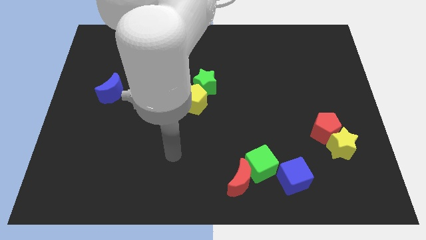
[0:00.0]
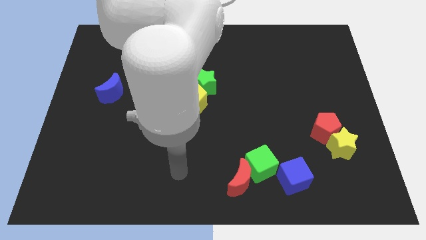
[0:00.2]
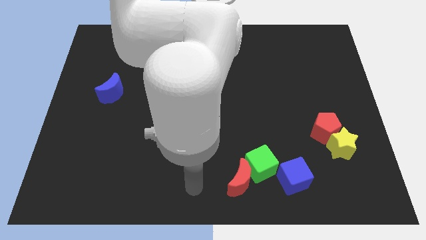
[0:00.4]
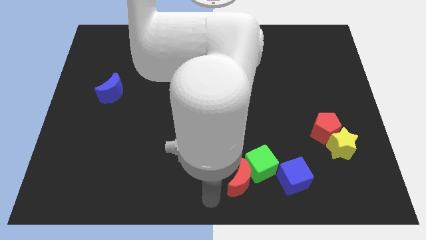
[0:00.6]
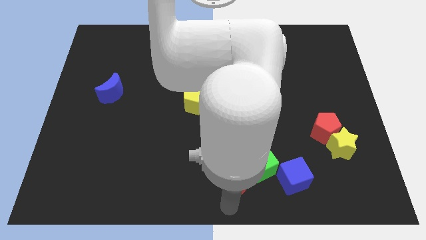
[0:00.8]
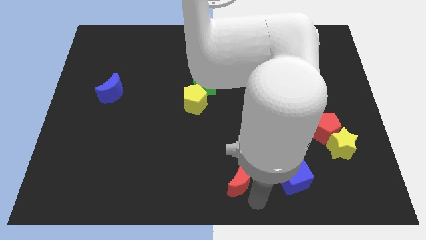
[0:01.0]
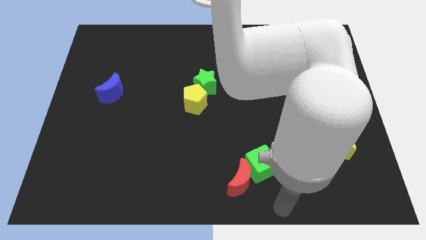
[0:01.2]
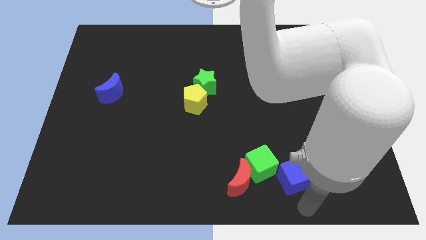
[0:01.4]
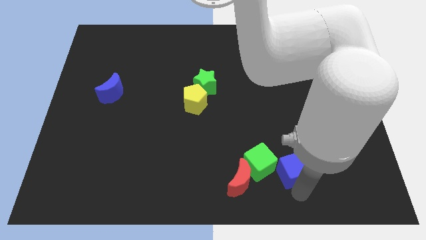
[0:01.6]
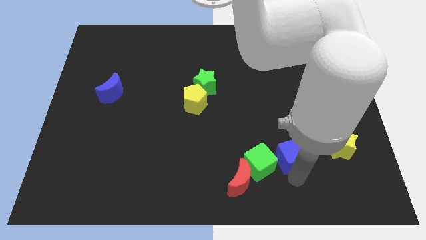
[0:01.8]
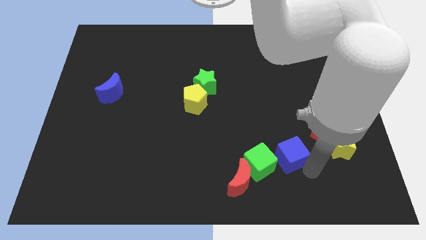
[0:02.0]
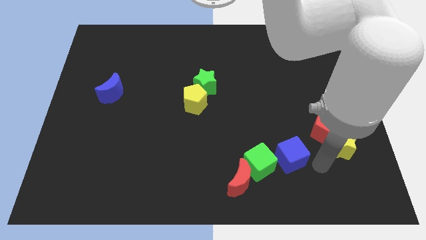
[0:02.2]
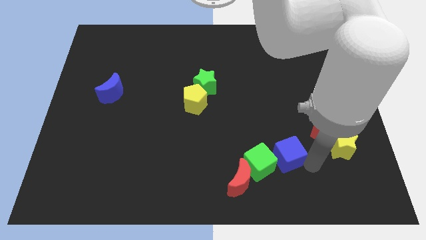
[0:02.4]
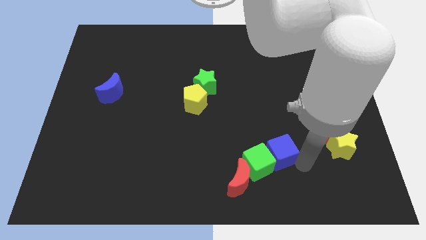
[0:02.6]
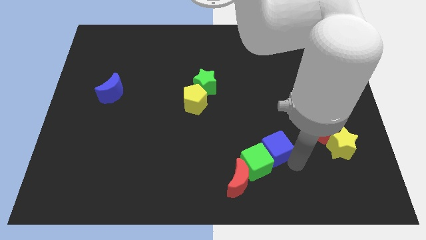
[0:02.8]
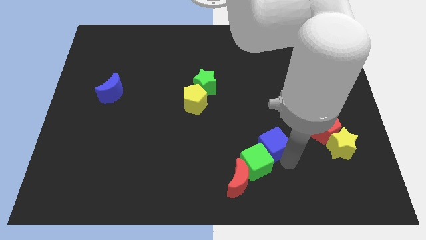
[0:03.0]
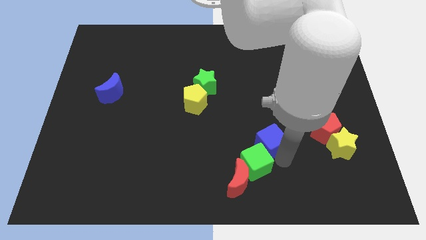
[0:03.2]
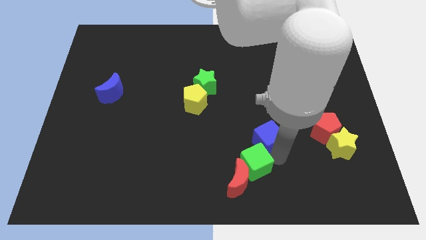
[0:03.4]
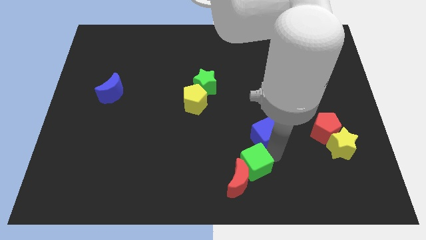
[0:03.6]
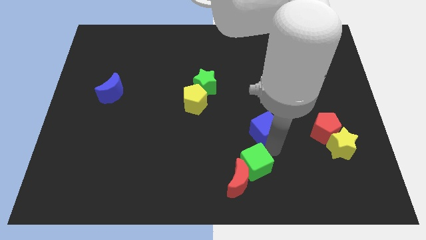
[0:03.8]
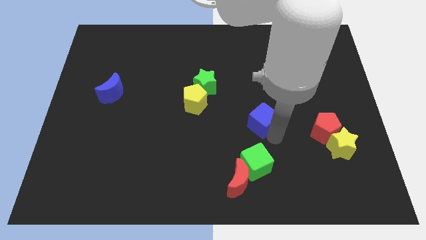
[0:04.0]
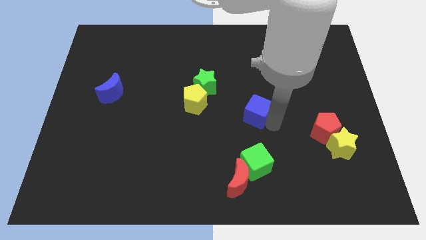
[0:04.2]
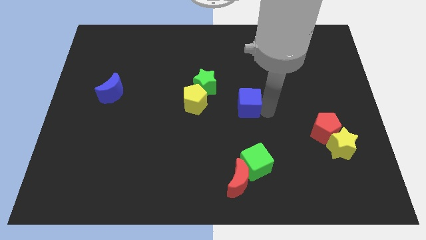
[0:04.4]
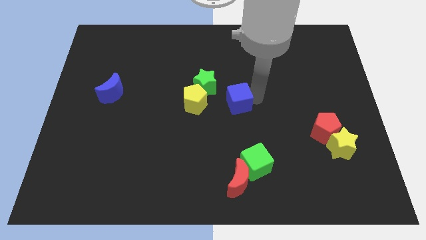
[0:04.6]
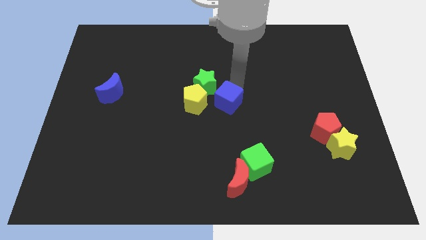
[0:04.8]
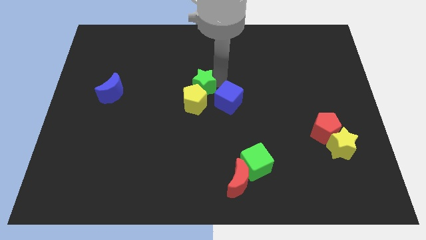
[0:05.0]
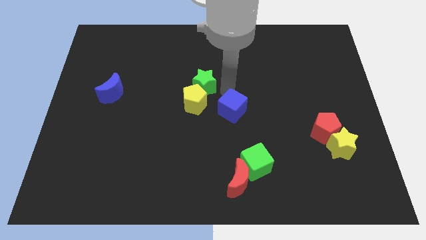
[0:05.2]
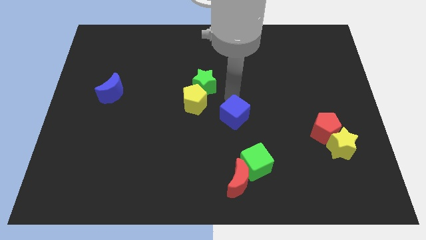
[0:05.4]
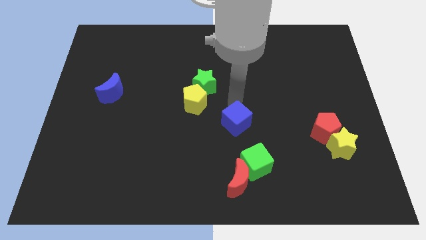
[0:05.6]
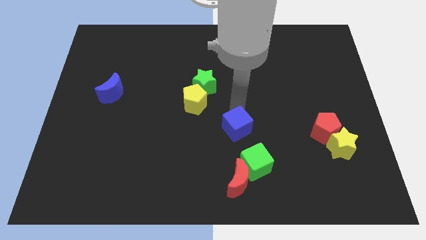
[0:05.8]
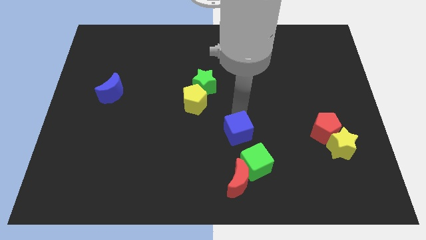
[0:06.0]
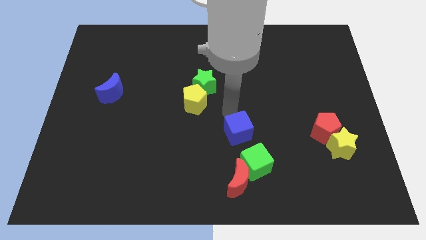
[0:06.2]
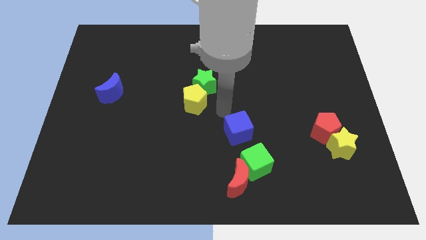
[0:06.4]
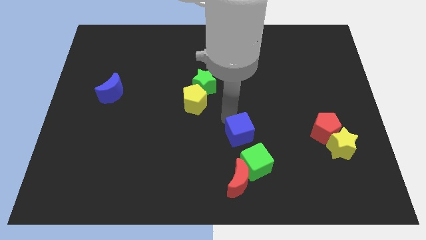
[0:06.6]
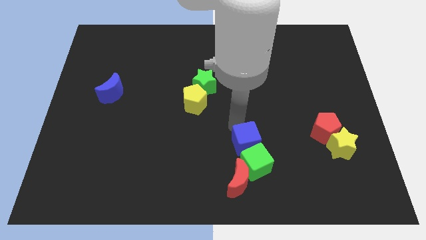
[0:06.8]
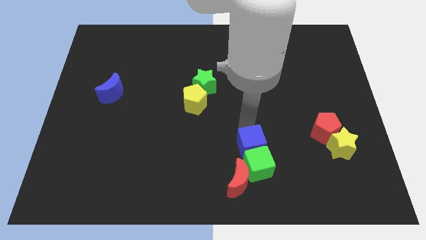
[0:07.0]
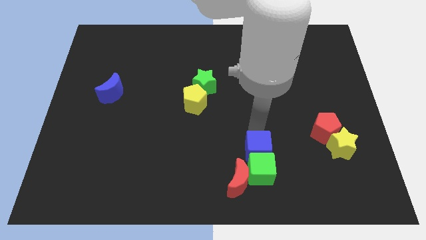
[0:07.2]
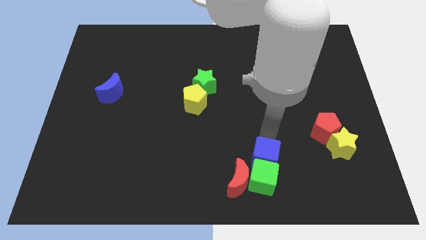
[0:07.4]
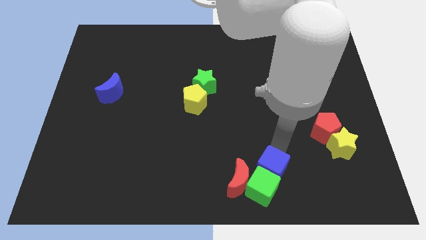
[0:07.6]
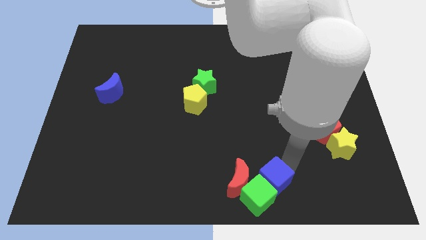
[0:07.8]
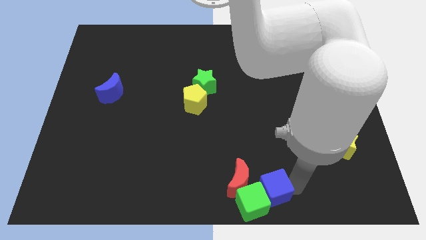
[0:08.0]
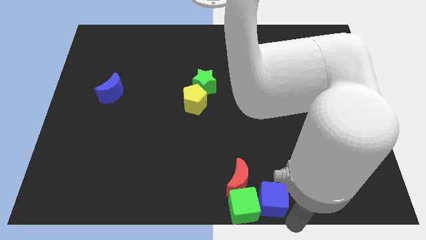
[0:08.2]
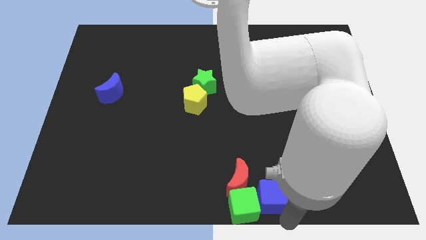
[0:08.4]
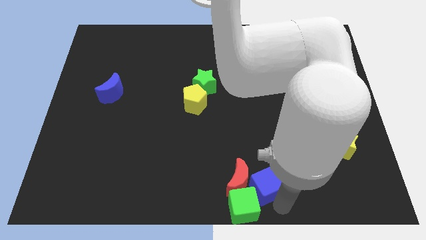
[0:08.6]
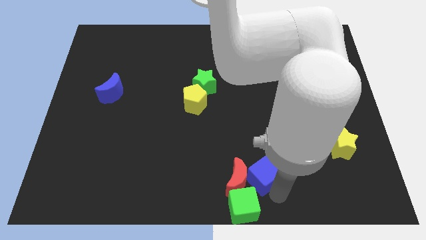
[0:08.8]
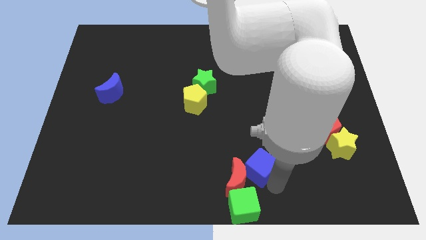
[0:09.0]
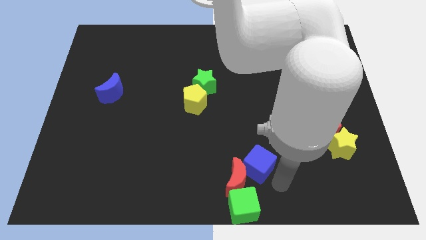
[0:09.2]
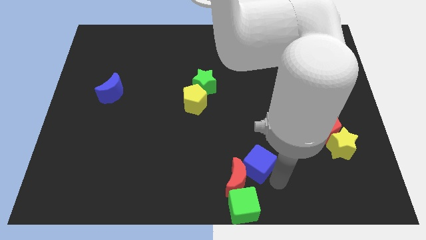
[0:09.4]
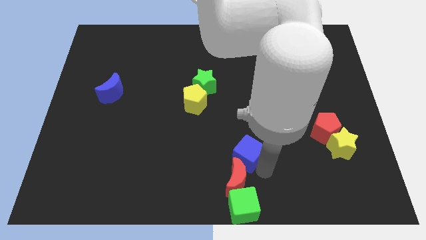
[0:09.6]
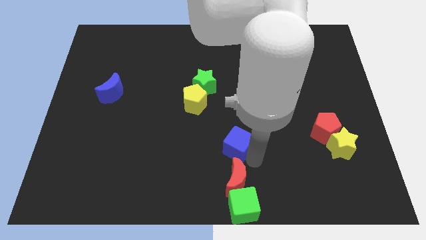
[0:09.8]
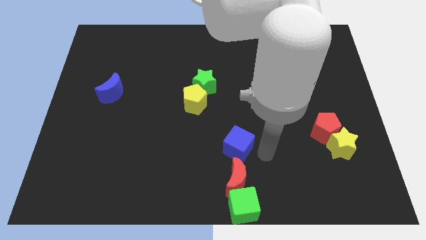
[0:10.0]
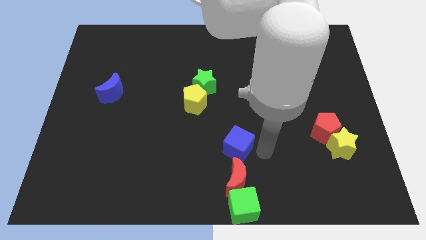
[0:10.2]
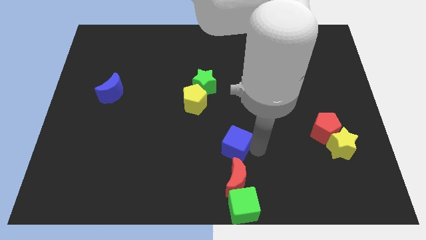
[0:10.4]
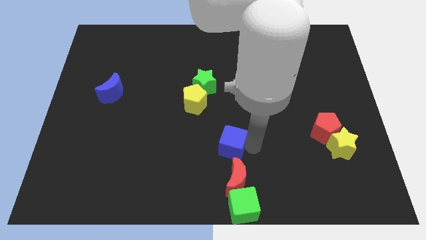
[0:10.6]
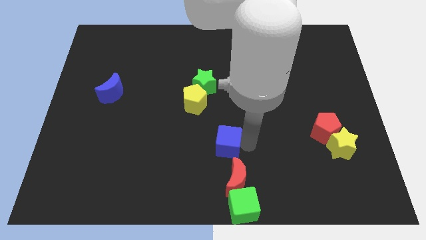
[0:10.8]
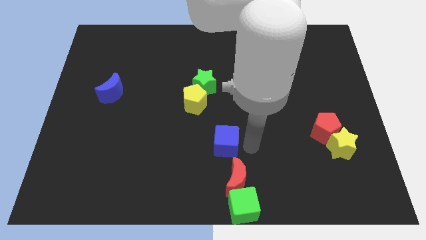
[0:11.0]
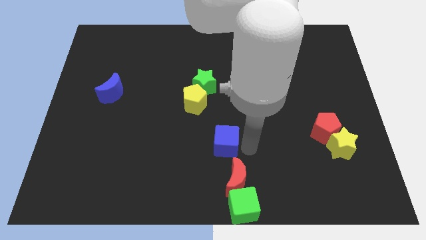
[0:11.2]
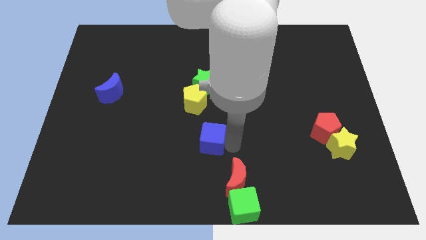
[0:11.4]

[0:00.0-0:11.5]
put the blue cube below the yellow pentagon
